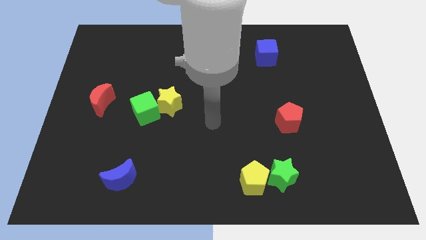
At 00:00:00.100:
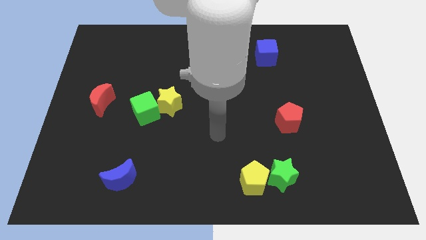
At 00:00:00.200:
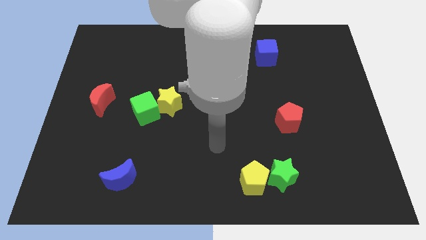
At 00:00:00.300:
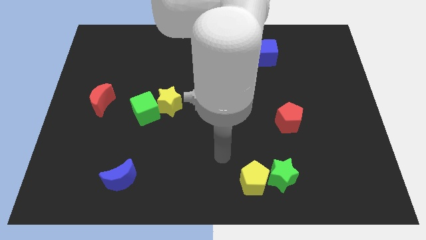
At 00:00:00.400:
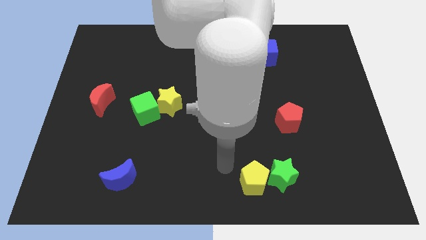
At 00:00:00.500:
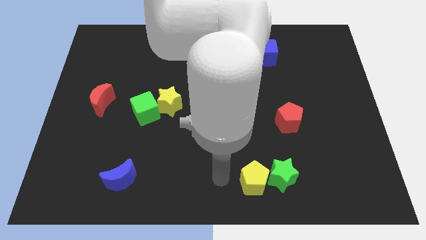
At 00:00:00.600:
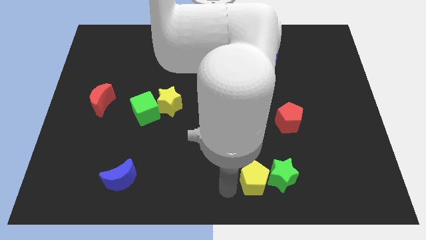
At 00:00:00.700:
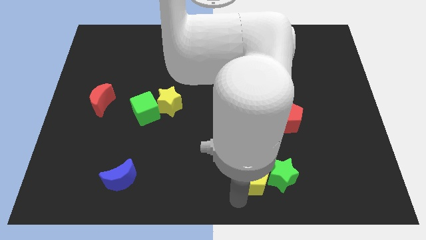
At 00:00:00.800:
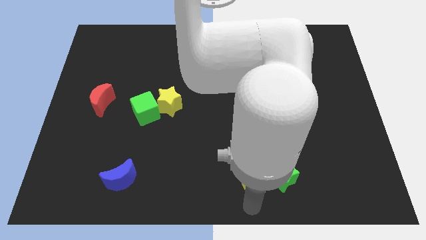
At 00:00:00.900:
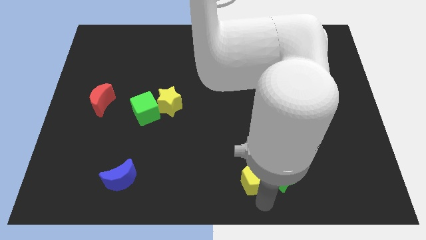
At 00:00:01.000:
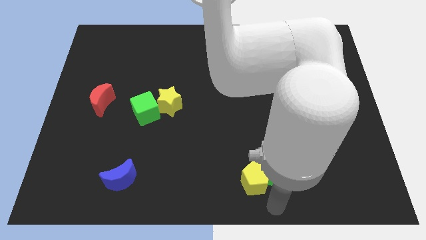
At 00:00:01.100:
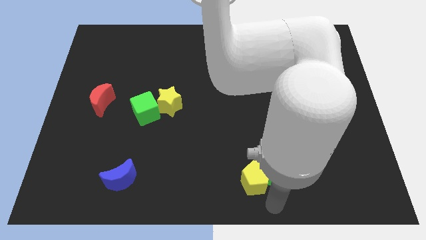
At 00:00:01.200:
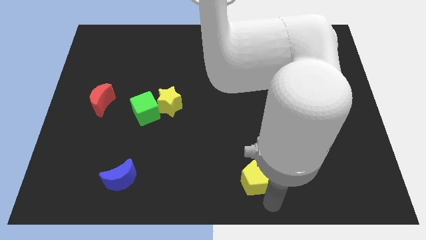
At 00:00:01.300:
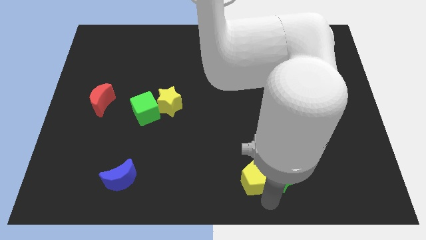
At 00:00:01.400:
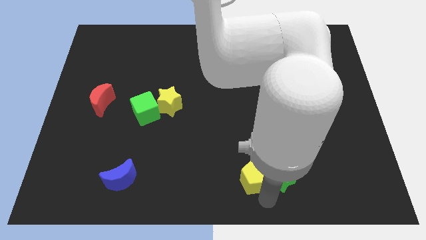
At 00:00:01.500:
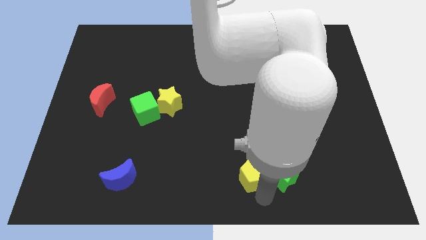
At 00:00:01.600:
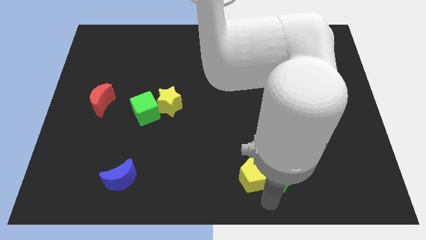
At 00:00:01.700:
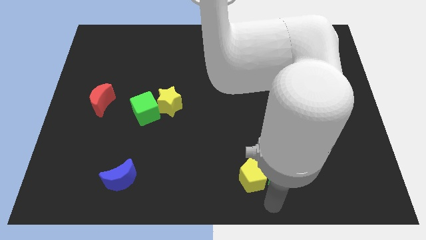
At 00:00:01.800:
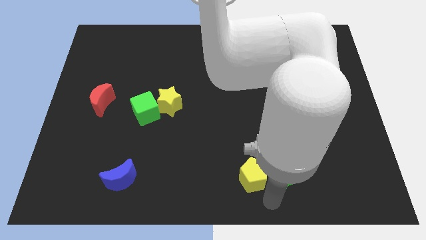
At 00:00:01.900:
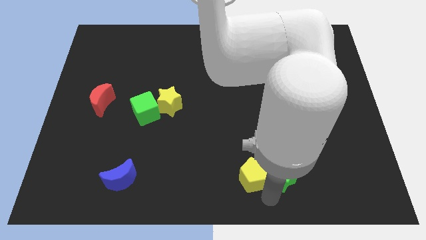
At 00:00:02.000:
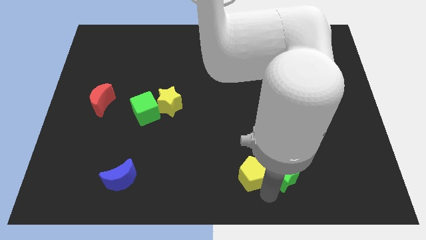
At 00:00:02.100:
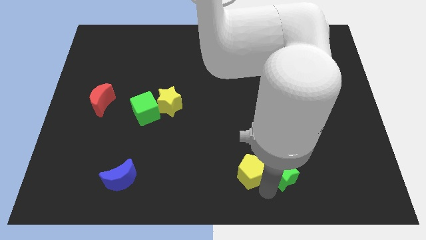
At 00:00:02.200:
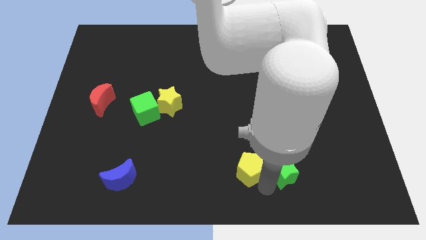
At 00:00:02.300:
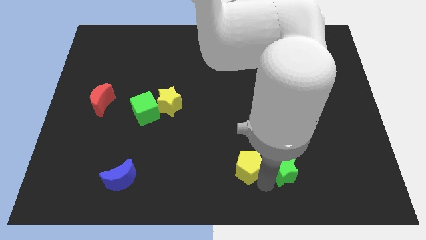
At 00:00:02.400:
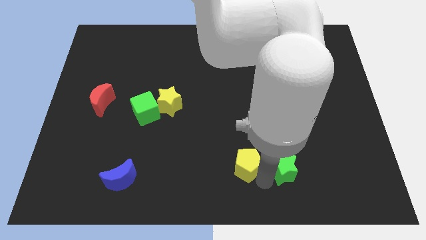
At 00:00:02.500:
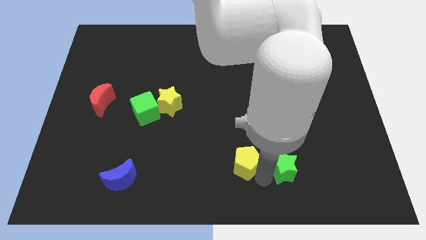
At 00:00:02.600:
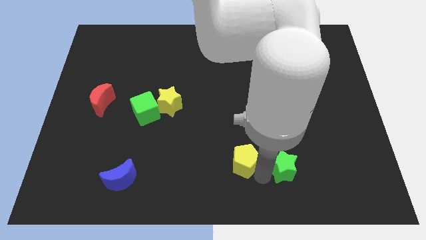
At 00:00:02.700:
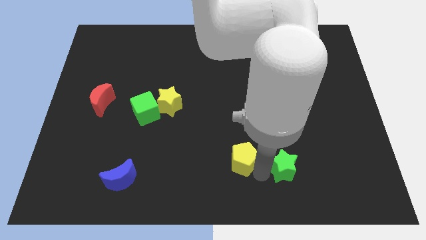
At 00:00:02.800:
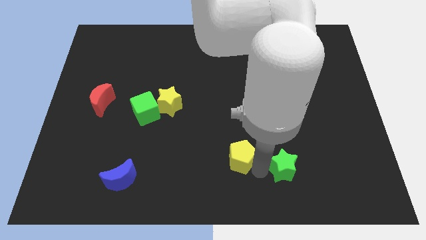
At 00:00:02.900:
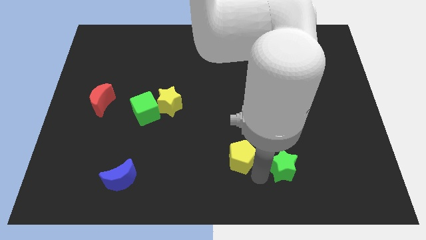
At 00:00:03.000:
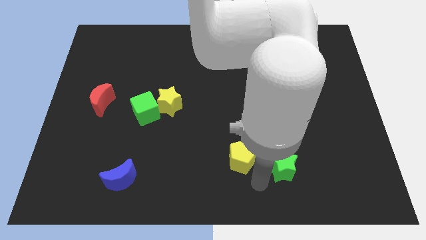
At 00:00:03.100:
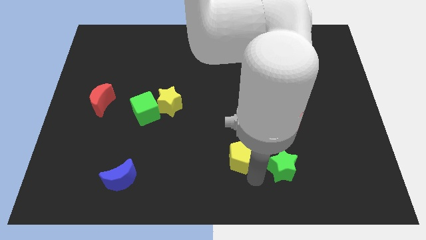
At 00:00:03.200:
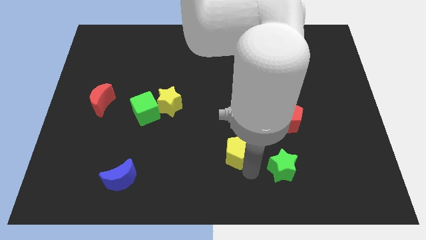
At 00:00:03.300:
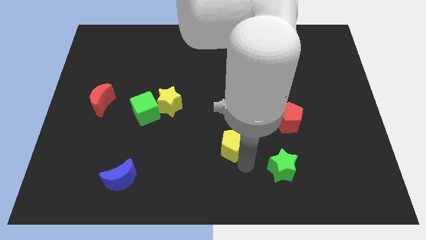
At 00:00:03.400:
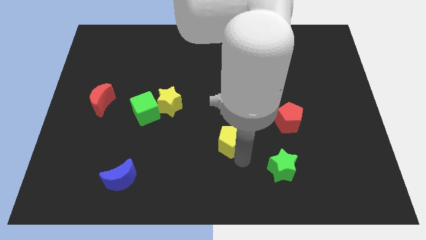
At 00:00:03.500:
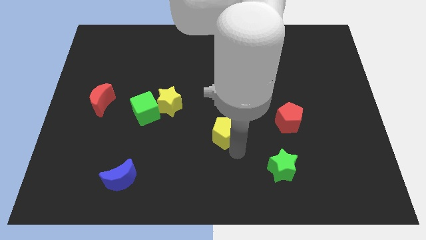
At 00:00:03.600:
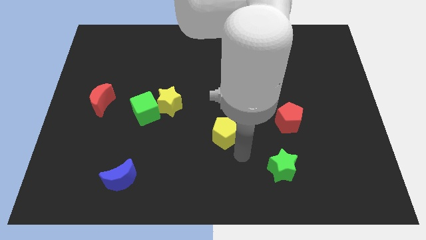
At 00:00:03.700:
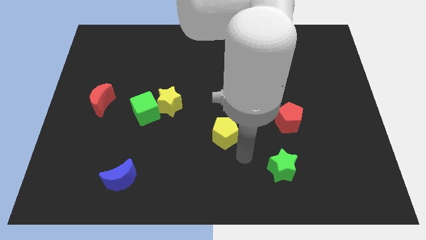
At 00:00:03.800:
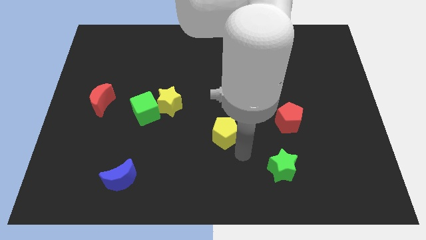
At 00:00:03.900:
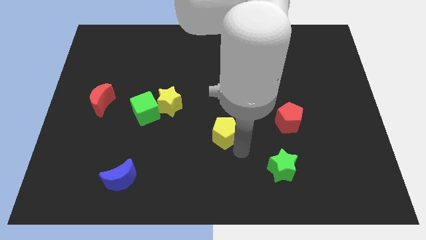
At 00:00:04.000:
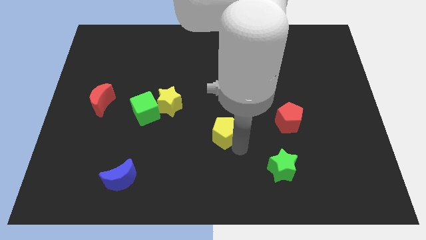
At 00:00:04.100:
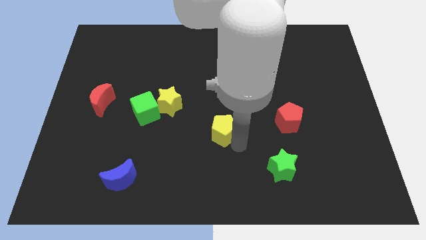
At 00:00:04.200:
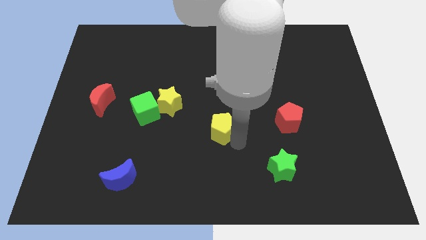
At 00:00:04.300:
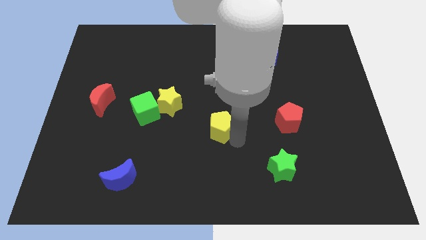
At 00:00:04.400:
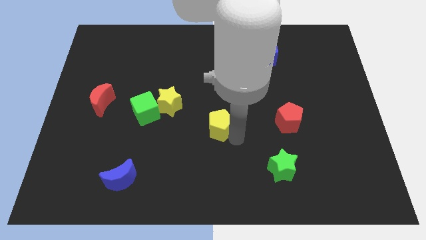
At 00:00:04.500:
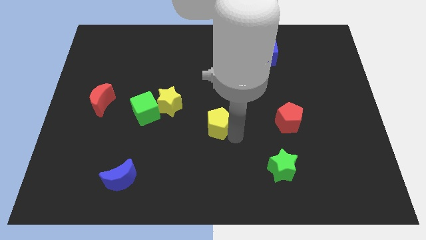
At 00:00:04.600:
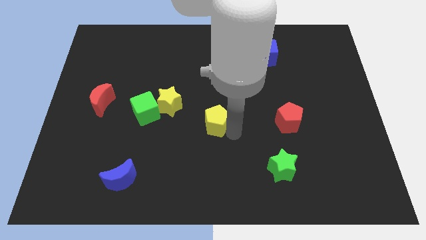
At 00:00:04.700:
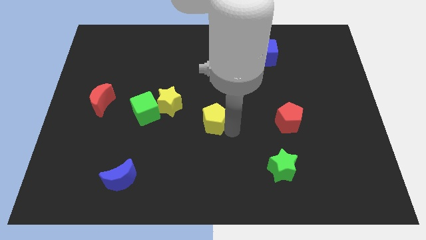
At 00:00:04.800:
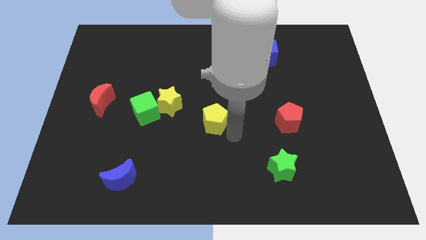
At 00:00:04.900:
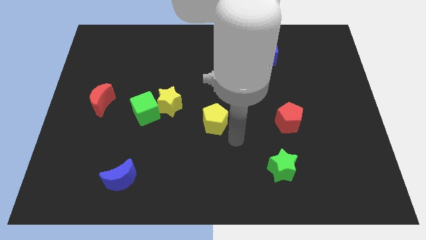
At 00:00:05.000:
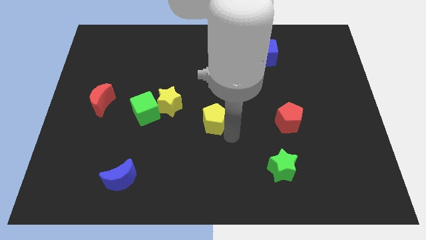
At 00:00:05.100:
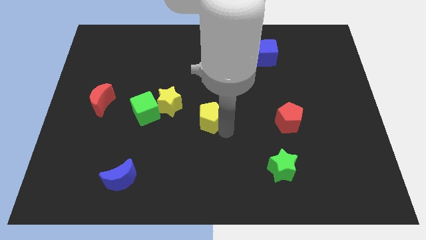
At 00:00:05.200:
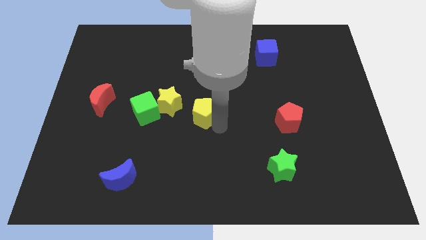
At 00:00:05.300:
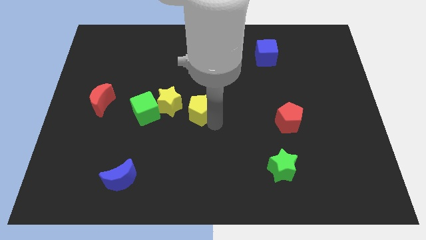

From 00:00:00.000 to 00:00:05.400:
slide the yellow pentagon upwards and to the left

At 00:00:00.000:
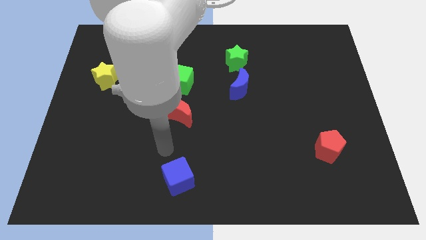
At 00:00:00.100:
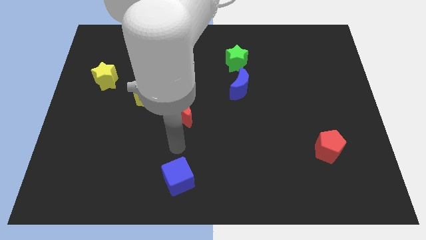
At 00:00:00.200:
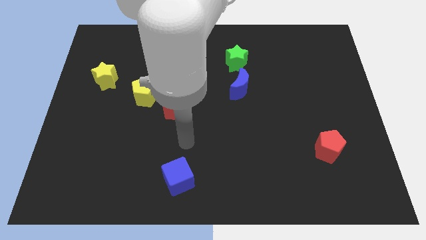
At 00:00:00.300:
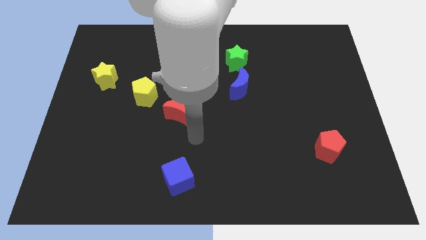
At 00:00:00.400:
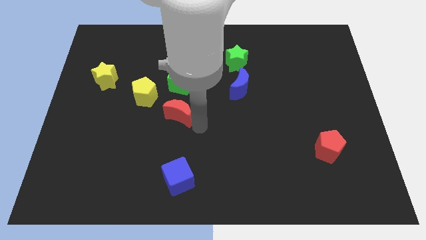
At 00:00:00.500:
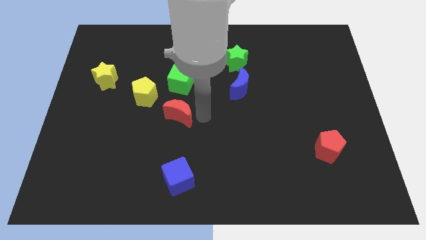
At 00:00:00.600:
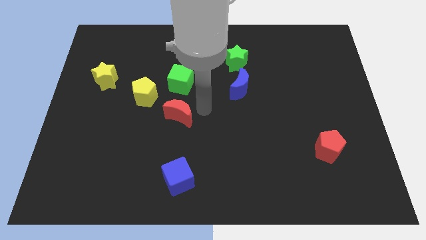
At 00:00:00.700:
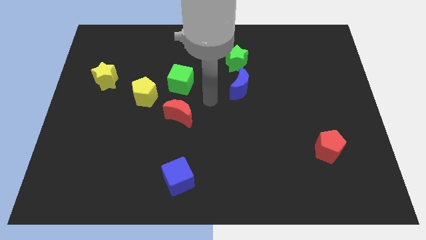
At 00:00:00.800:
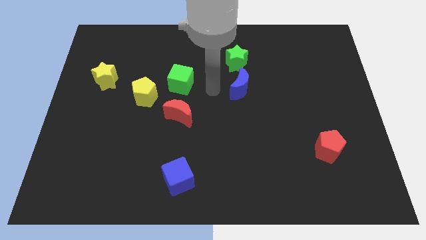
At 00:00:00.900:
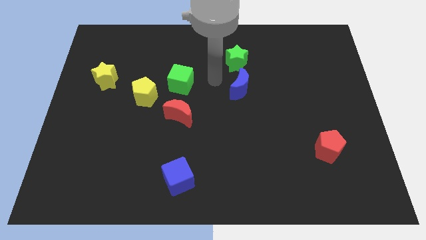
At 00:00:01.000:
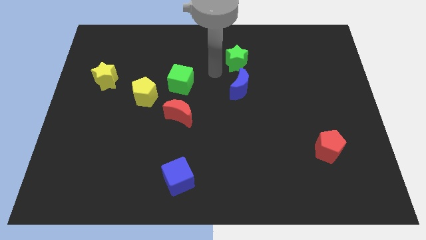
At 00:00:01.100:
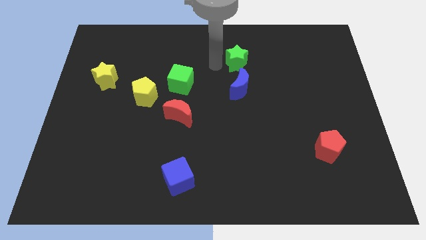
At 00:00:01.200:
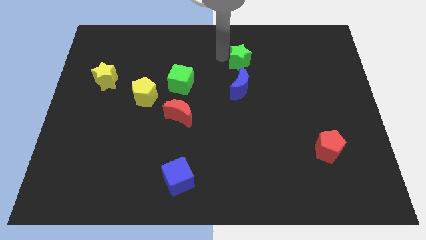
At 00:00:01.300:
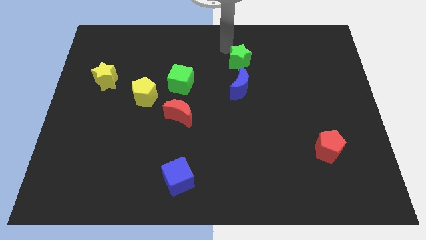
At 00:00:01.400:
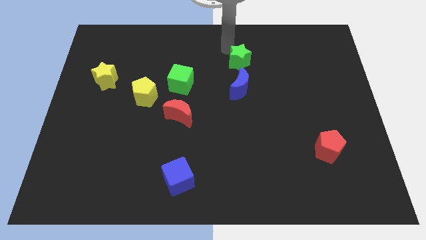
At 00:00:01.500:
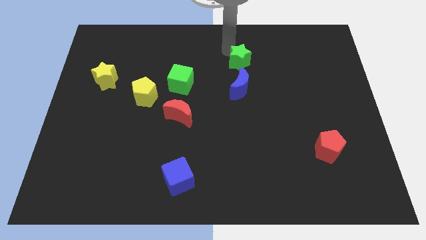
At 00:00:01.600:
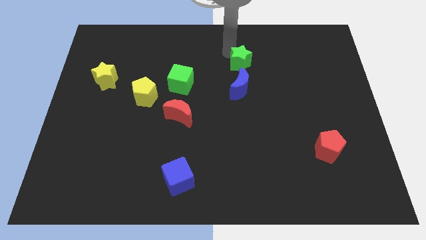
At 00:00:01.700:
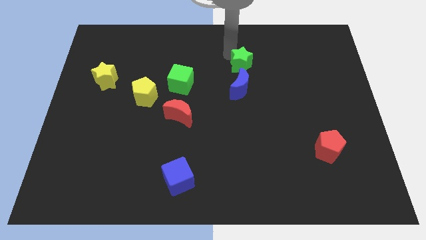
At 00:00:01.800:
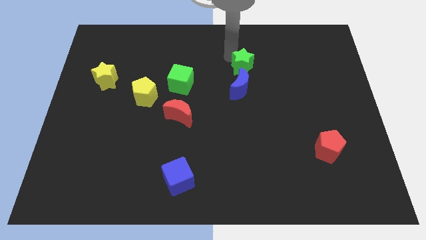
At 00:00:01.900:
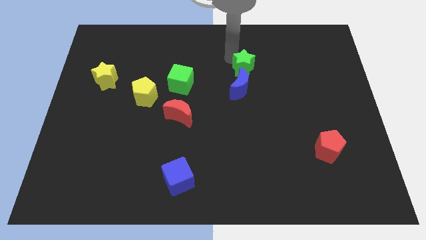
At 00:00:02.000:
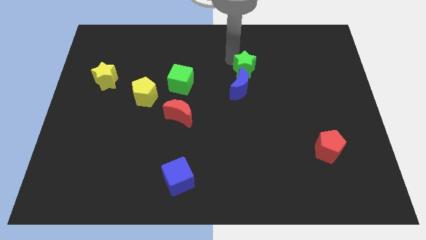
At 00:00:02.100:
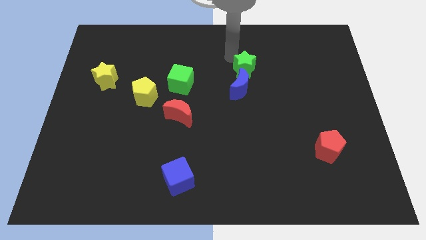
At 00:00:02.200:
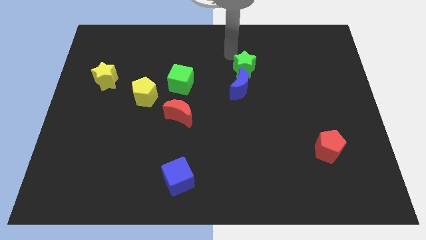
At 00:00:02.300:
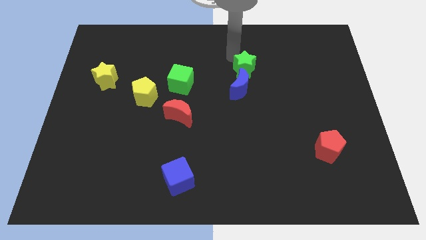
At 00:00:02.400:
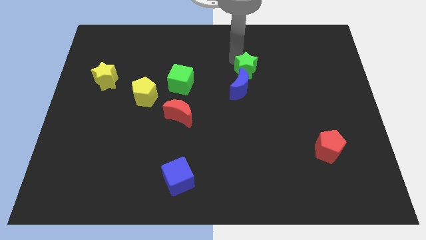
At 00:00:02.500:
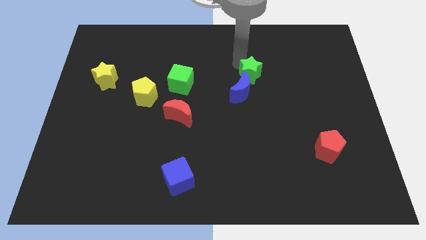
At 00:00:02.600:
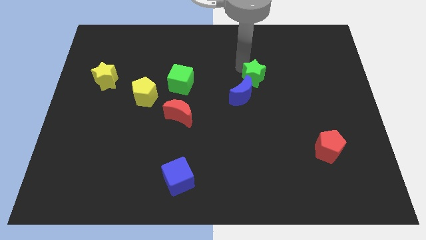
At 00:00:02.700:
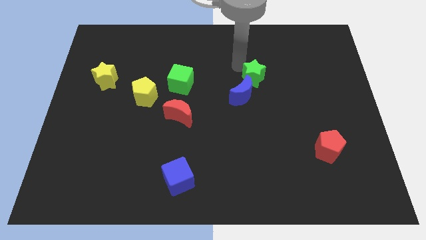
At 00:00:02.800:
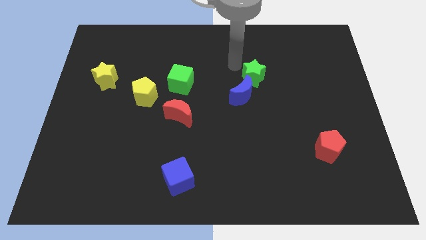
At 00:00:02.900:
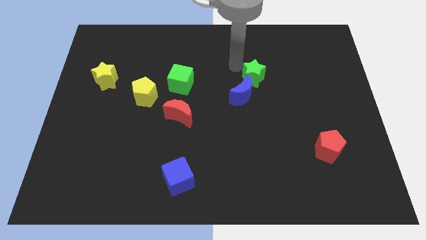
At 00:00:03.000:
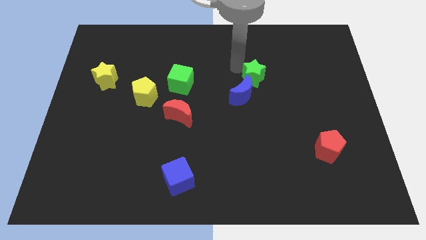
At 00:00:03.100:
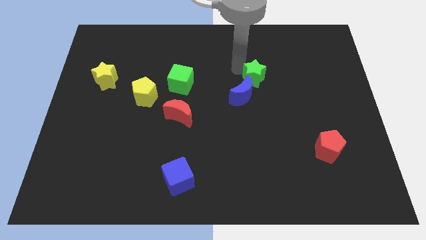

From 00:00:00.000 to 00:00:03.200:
move the green star diagonally down and to the right a bit
